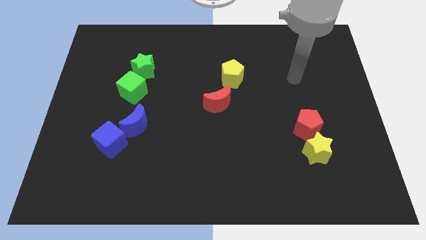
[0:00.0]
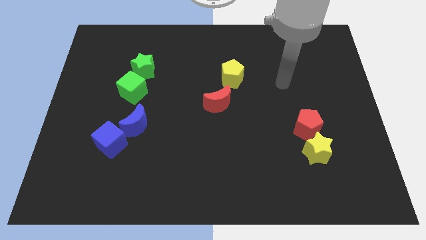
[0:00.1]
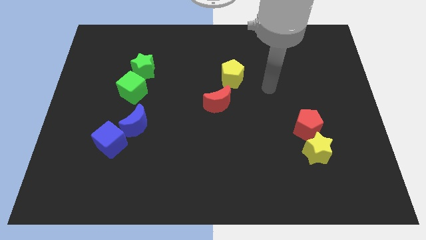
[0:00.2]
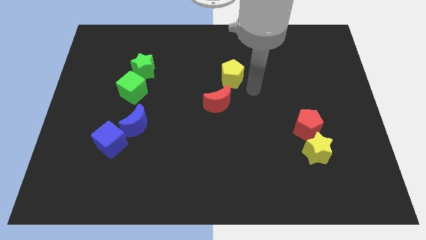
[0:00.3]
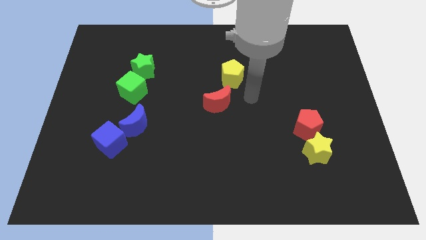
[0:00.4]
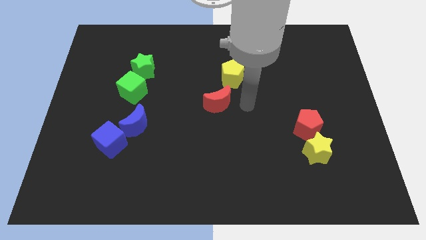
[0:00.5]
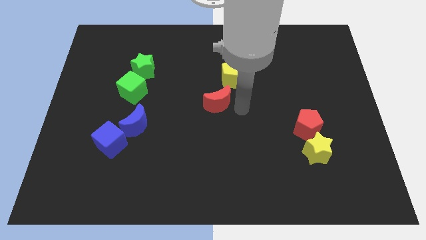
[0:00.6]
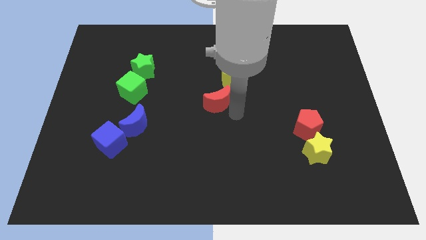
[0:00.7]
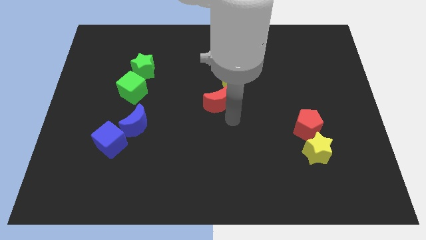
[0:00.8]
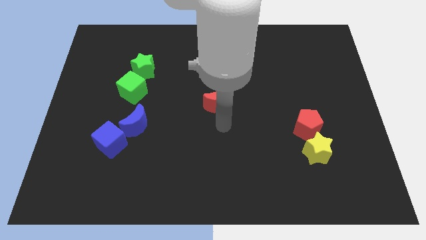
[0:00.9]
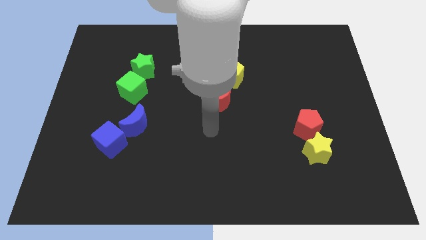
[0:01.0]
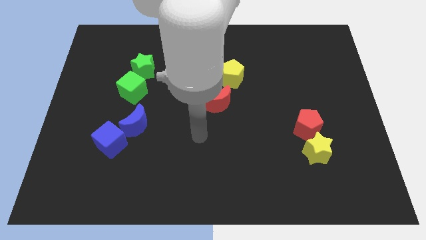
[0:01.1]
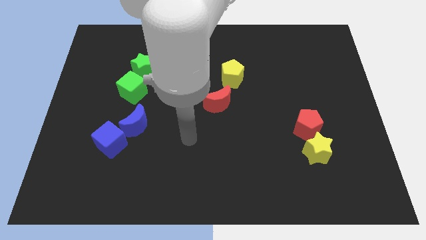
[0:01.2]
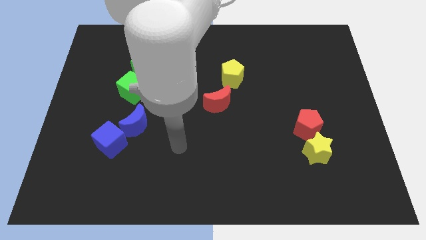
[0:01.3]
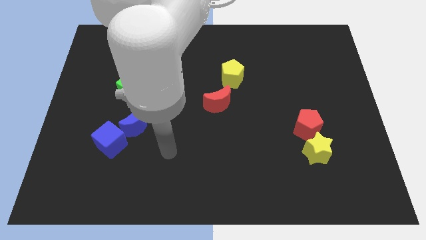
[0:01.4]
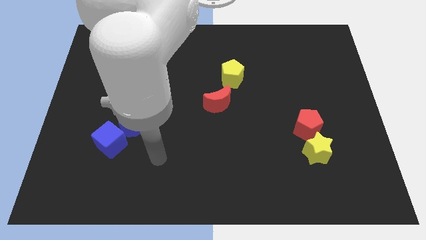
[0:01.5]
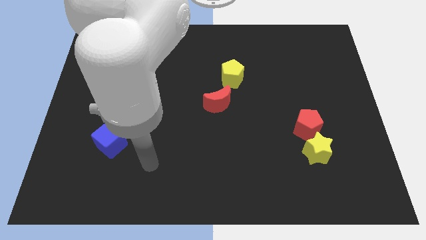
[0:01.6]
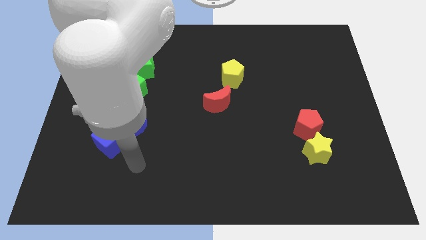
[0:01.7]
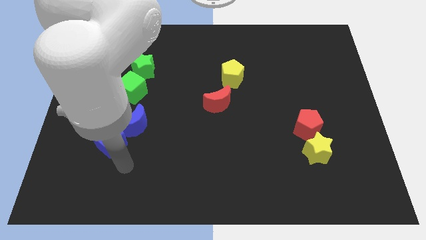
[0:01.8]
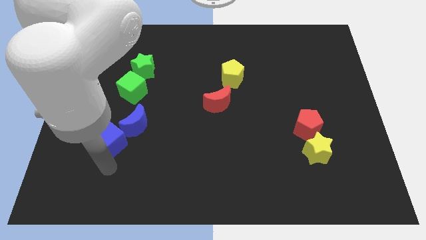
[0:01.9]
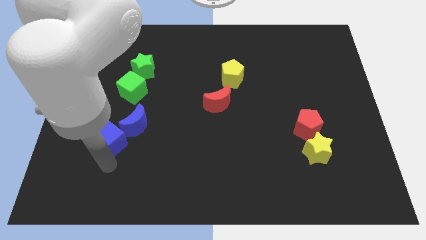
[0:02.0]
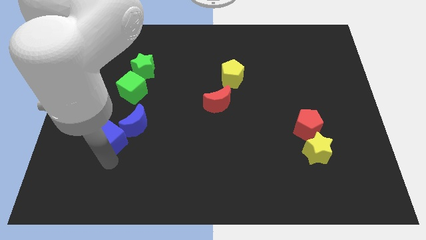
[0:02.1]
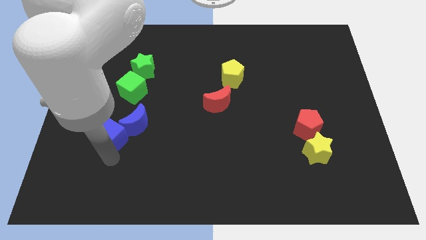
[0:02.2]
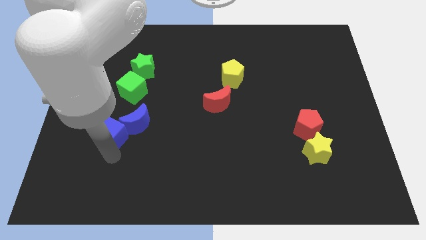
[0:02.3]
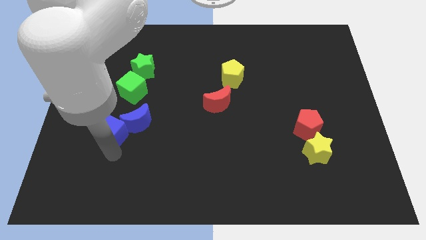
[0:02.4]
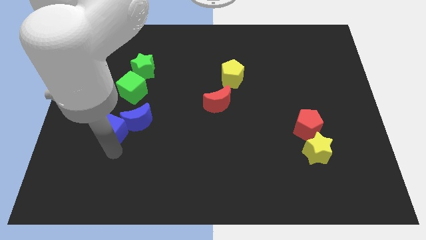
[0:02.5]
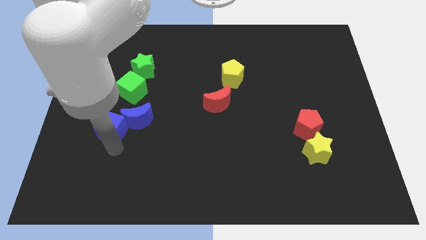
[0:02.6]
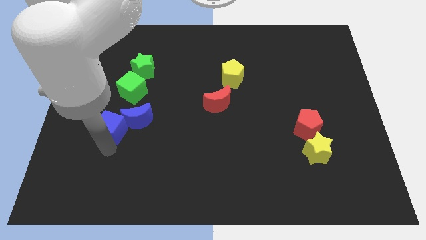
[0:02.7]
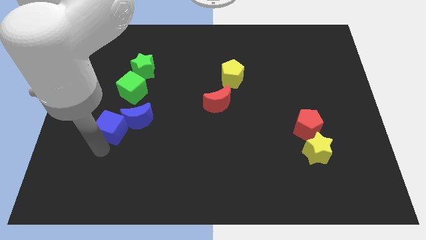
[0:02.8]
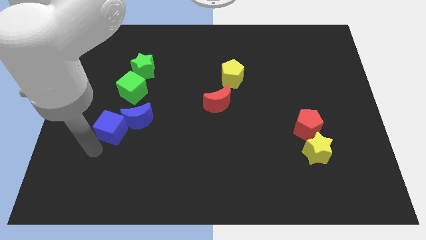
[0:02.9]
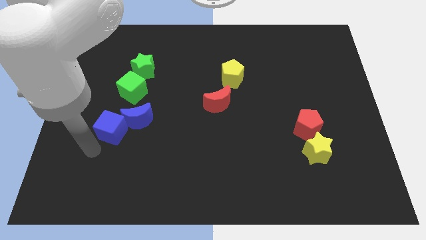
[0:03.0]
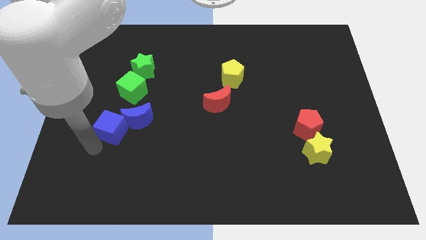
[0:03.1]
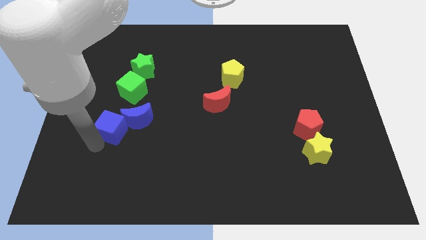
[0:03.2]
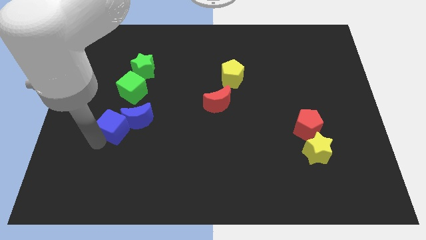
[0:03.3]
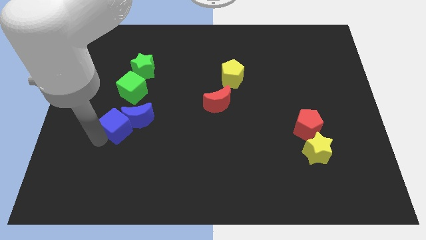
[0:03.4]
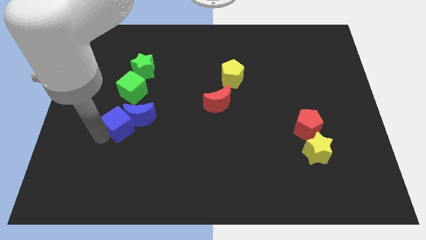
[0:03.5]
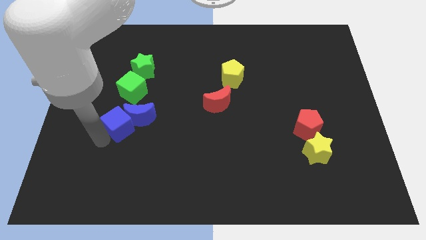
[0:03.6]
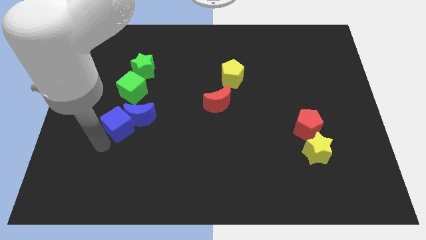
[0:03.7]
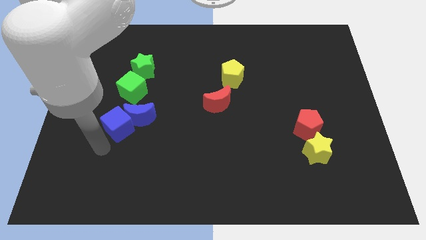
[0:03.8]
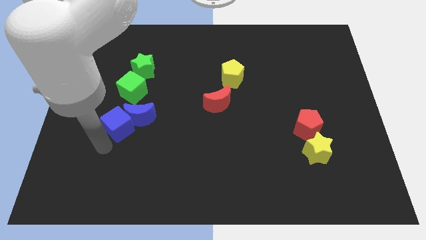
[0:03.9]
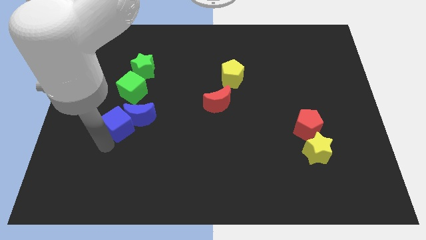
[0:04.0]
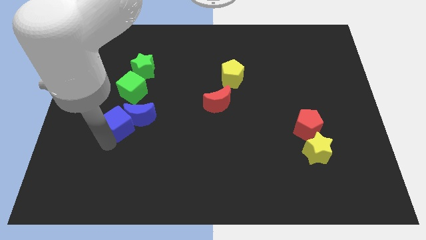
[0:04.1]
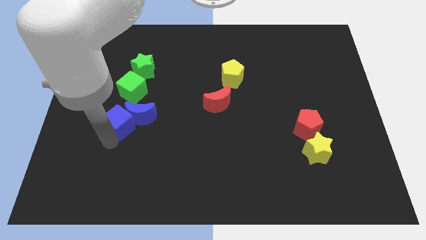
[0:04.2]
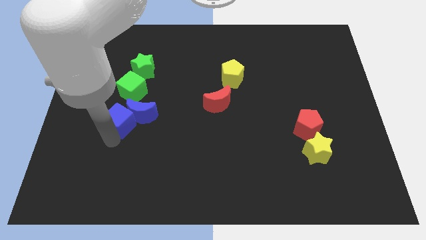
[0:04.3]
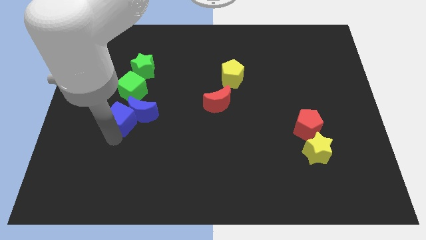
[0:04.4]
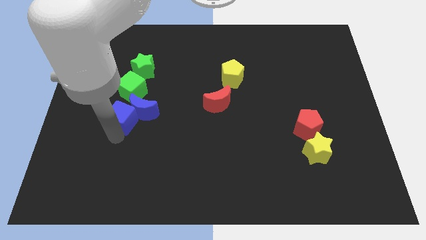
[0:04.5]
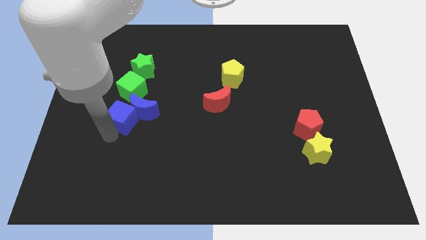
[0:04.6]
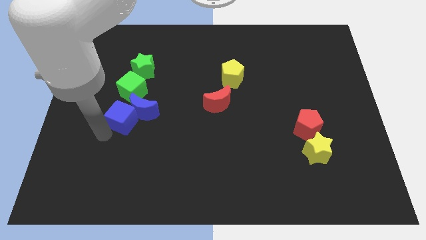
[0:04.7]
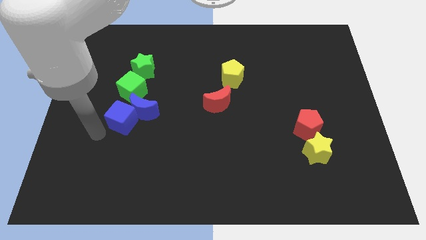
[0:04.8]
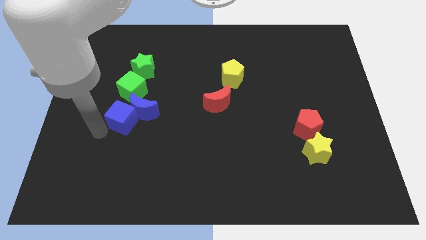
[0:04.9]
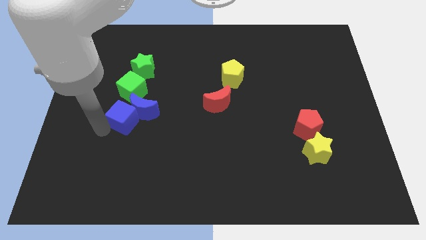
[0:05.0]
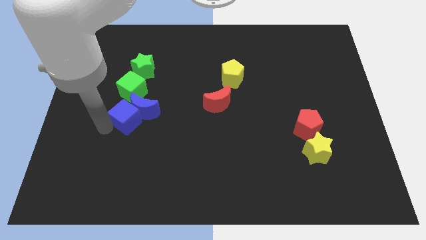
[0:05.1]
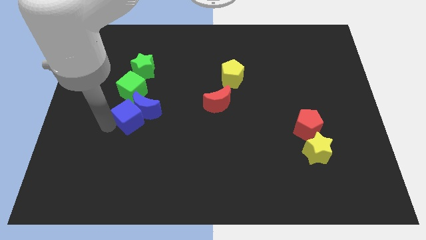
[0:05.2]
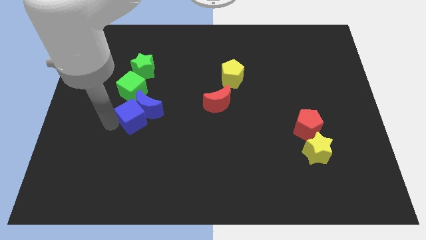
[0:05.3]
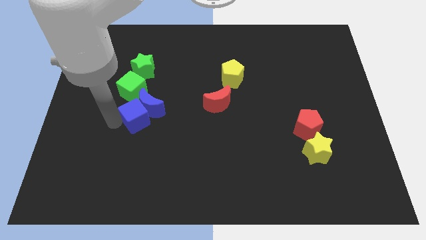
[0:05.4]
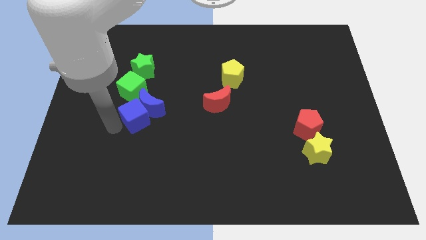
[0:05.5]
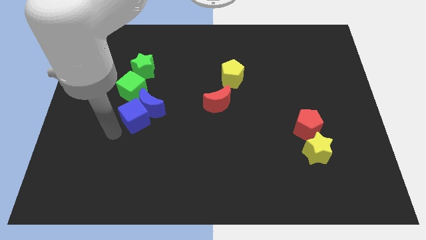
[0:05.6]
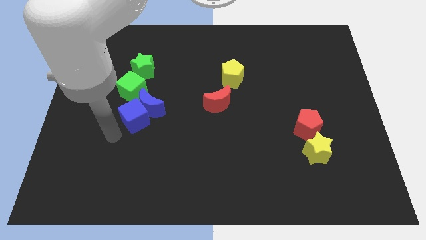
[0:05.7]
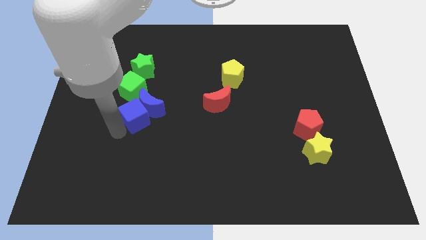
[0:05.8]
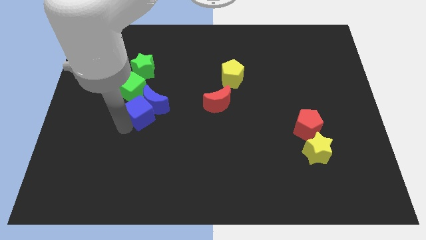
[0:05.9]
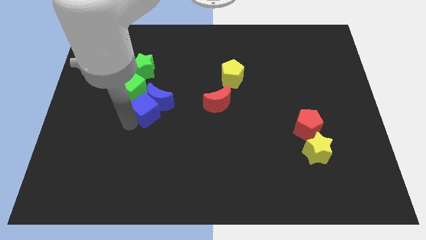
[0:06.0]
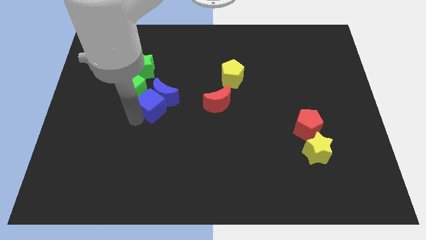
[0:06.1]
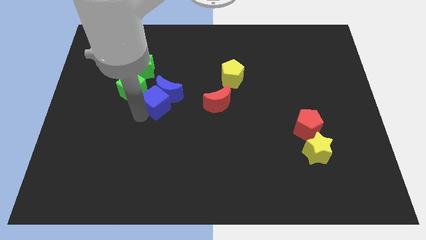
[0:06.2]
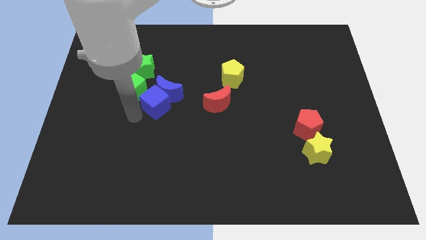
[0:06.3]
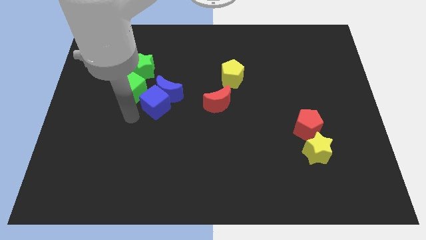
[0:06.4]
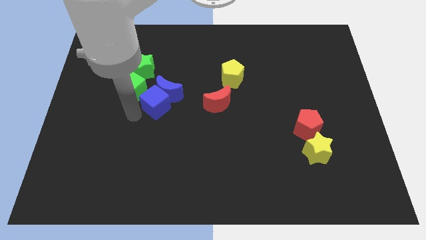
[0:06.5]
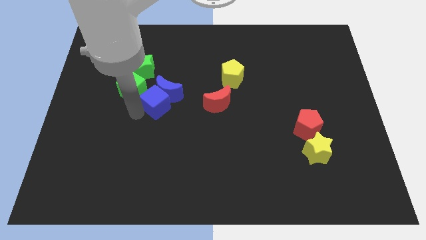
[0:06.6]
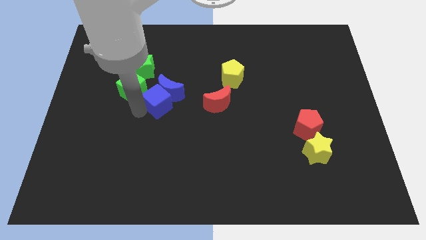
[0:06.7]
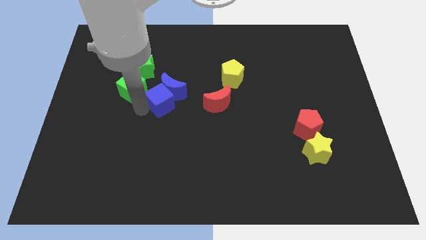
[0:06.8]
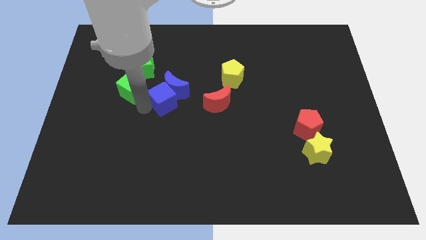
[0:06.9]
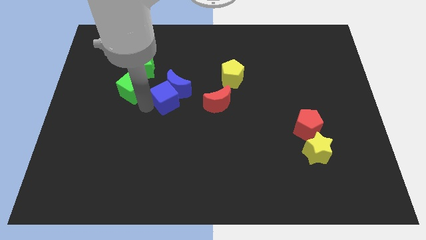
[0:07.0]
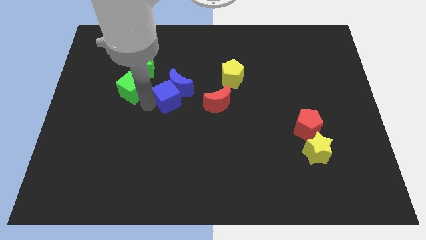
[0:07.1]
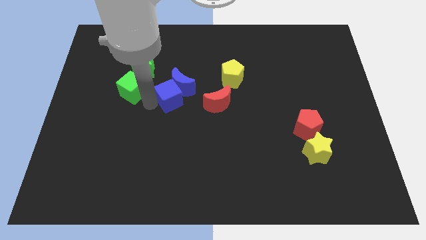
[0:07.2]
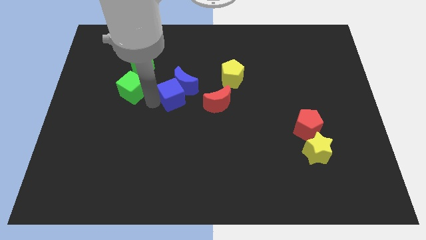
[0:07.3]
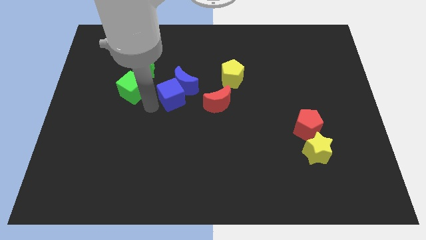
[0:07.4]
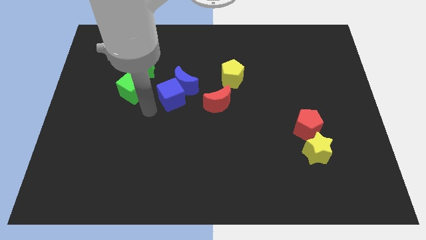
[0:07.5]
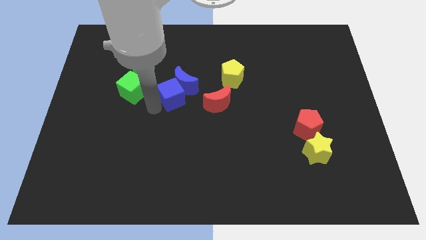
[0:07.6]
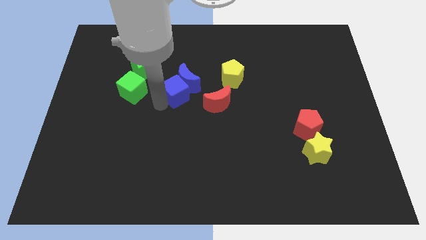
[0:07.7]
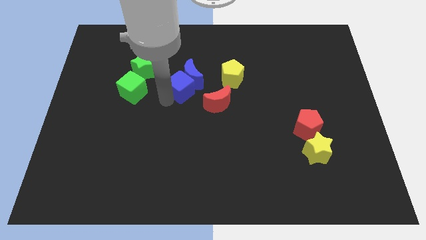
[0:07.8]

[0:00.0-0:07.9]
slide the blue cube up and right diagonally
